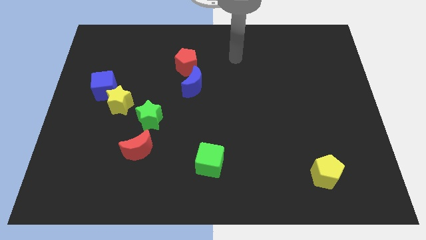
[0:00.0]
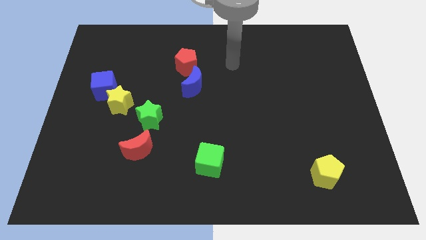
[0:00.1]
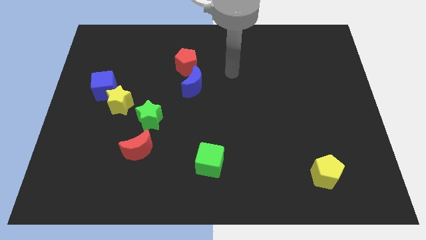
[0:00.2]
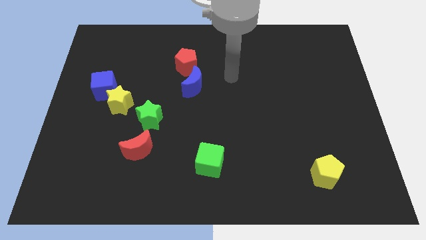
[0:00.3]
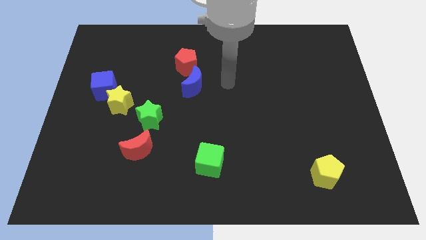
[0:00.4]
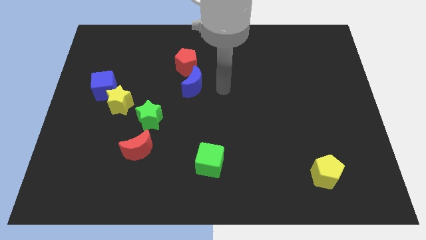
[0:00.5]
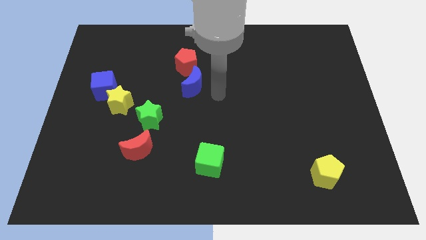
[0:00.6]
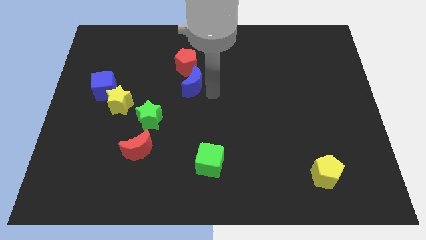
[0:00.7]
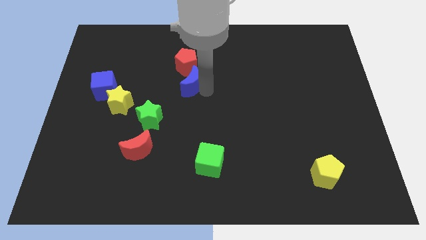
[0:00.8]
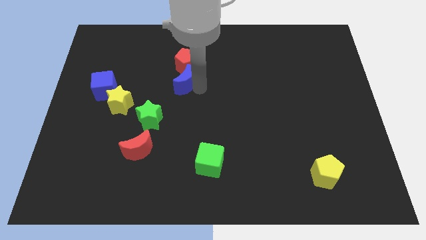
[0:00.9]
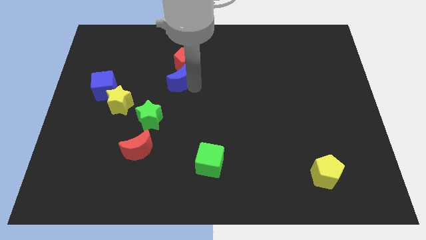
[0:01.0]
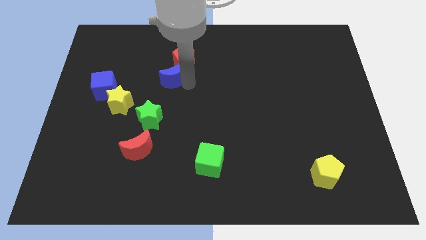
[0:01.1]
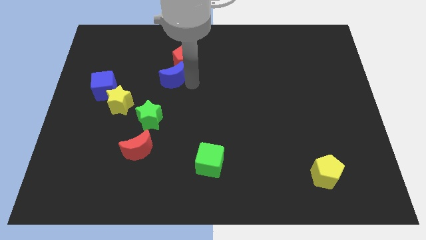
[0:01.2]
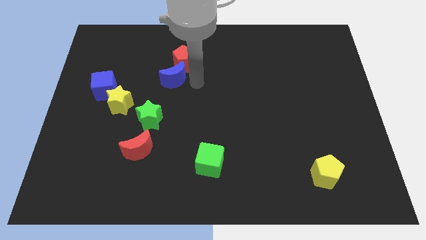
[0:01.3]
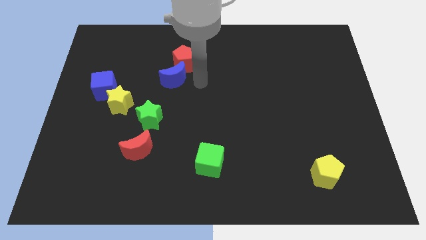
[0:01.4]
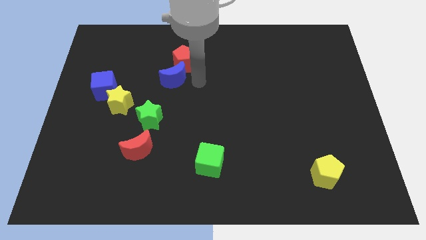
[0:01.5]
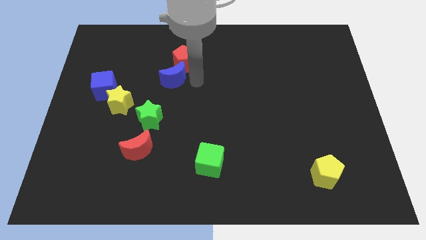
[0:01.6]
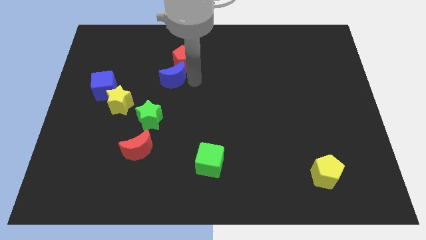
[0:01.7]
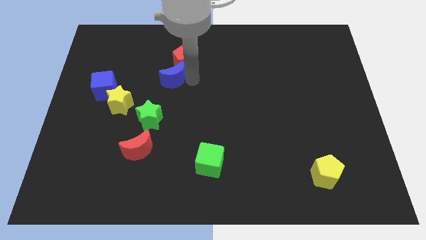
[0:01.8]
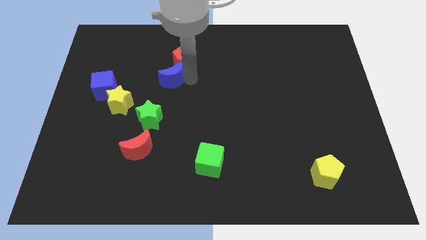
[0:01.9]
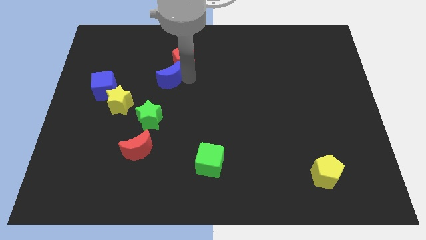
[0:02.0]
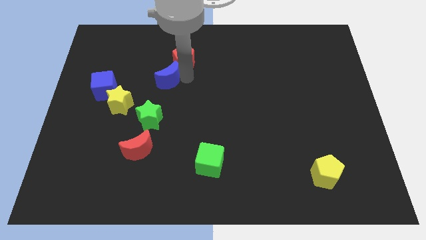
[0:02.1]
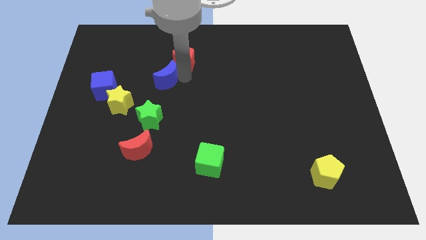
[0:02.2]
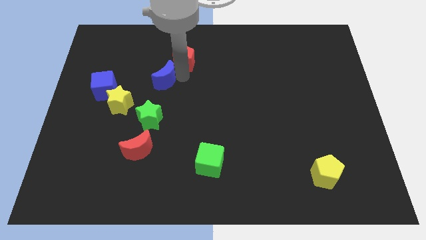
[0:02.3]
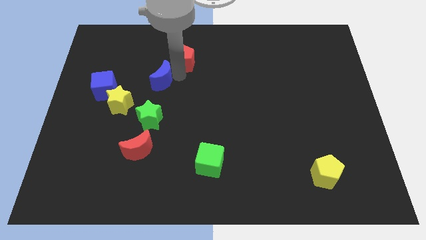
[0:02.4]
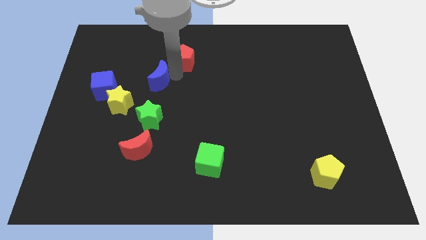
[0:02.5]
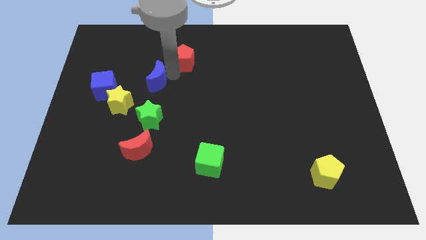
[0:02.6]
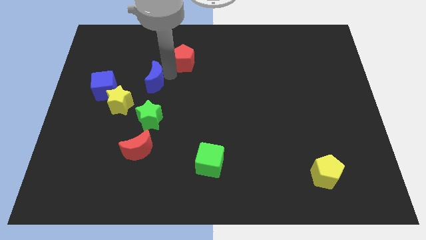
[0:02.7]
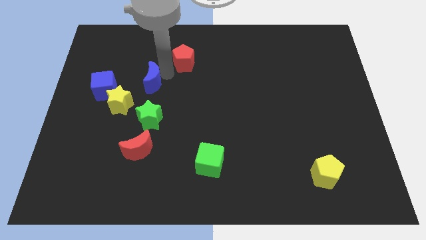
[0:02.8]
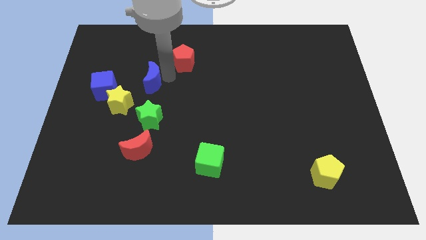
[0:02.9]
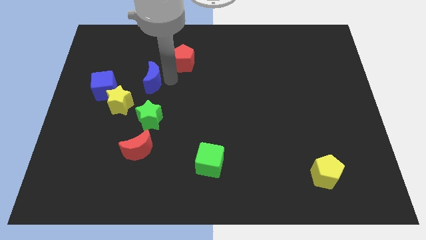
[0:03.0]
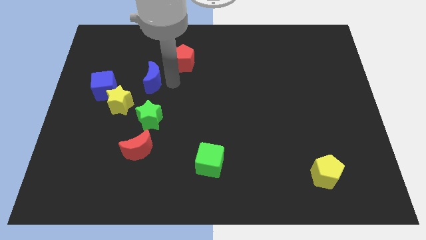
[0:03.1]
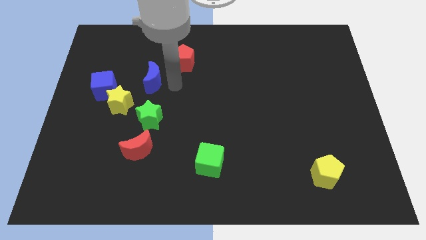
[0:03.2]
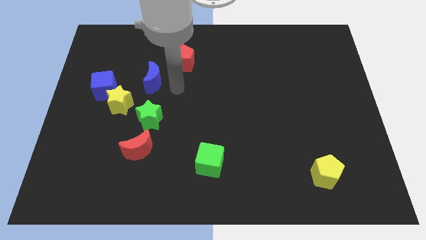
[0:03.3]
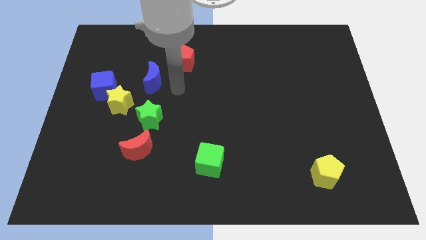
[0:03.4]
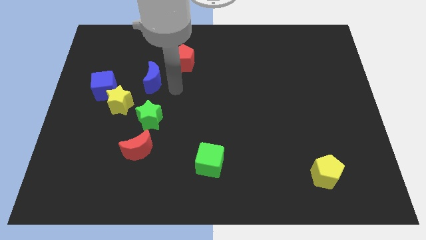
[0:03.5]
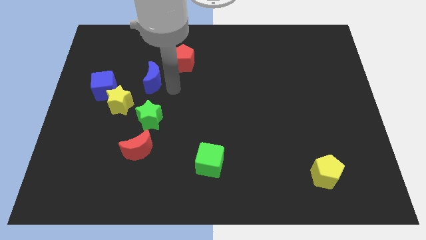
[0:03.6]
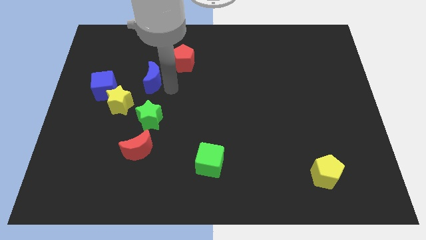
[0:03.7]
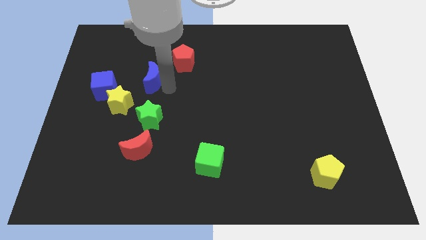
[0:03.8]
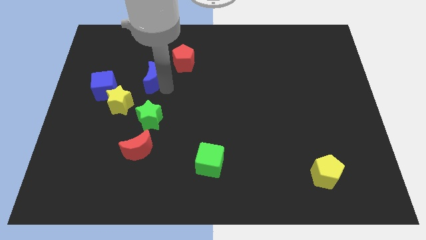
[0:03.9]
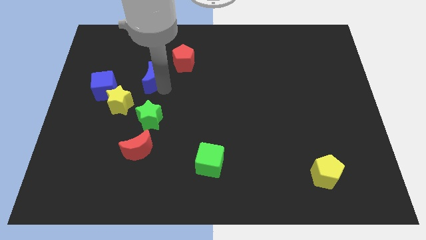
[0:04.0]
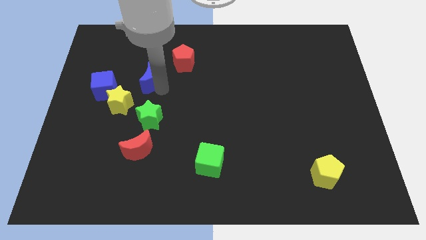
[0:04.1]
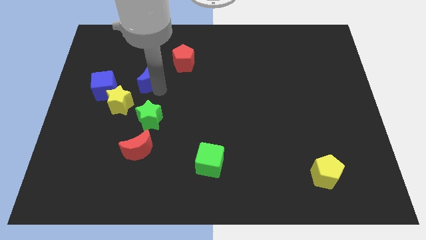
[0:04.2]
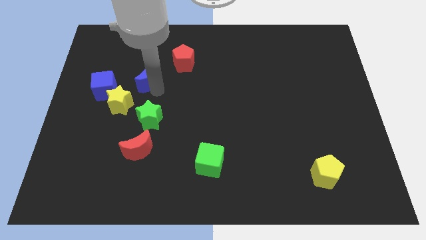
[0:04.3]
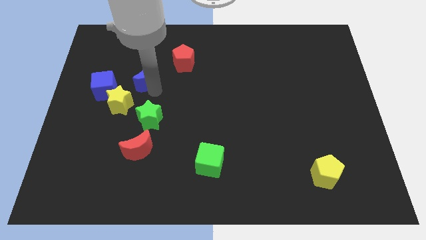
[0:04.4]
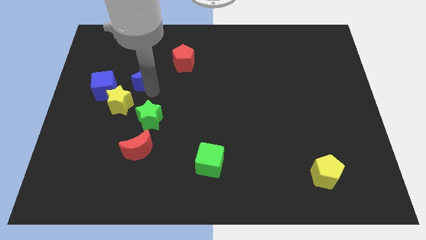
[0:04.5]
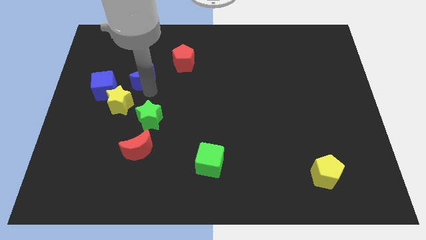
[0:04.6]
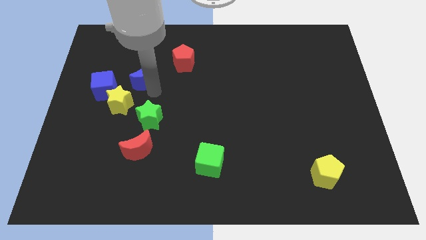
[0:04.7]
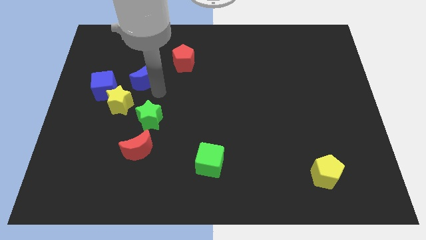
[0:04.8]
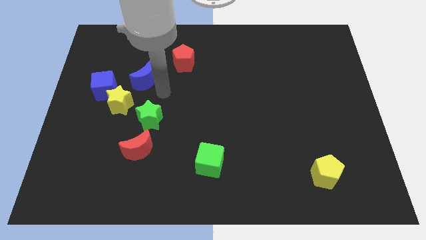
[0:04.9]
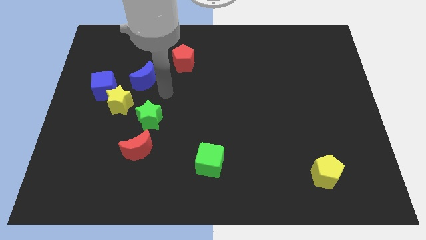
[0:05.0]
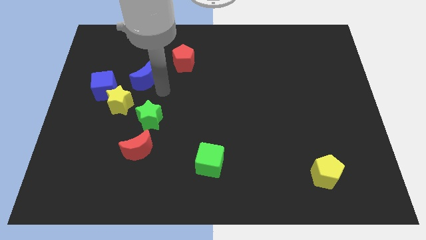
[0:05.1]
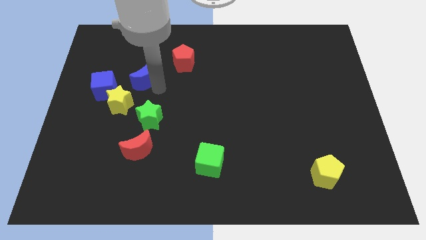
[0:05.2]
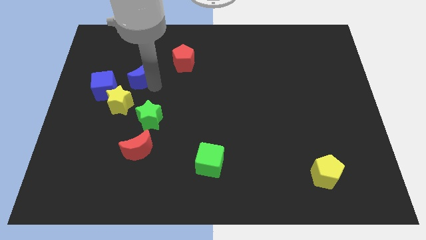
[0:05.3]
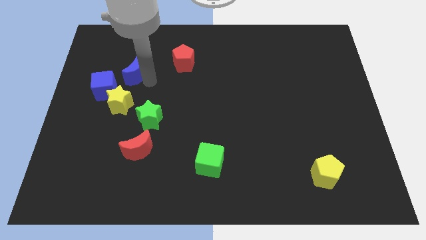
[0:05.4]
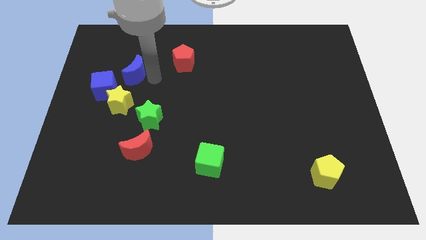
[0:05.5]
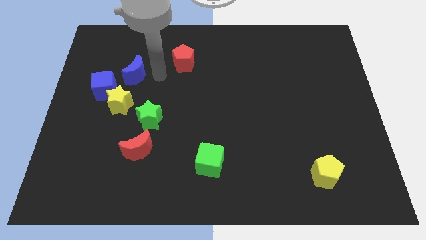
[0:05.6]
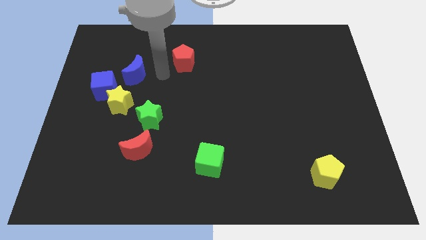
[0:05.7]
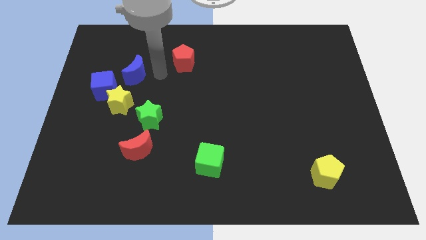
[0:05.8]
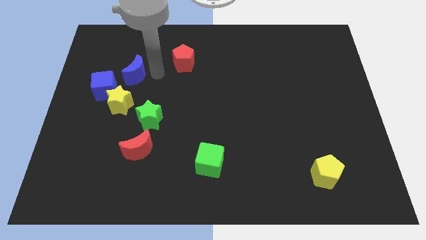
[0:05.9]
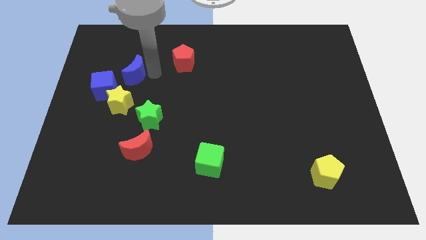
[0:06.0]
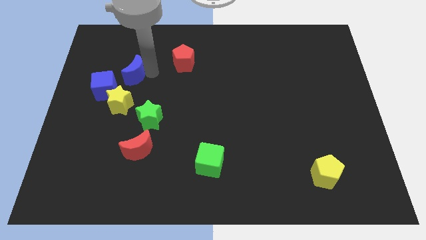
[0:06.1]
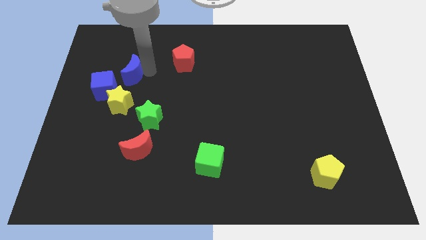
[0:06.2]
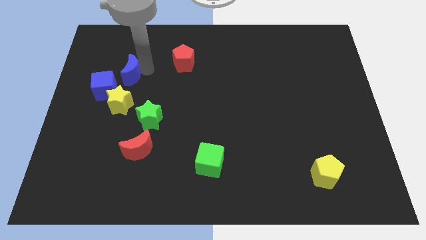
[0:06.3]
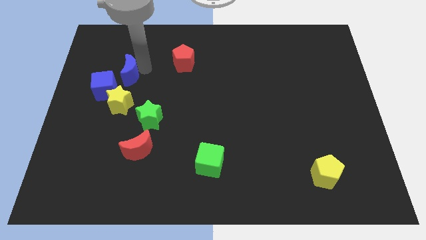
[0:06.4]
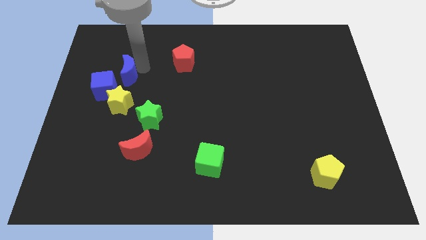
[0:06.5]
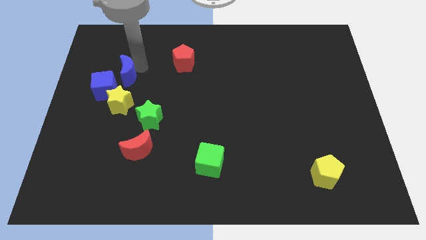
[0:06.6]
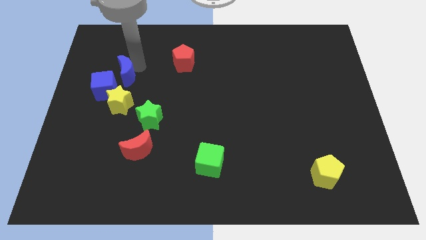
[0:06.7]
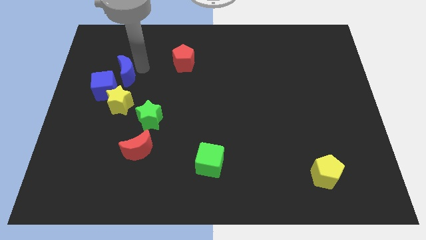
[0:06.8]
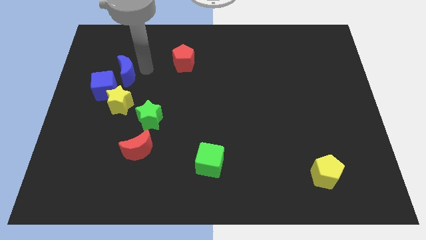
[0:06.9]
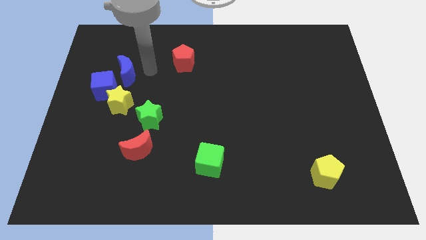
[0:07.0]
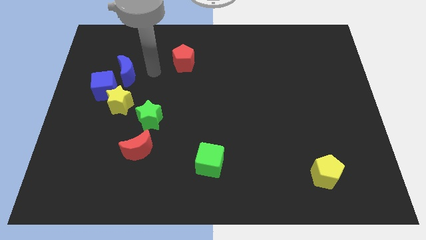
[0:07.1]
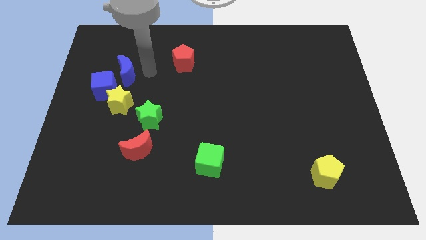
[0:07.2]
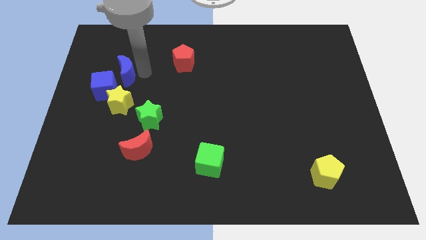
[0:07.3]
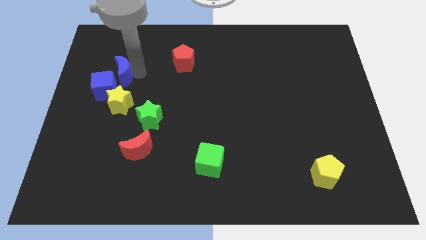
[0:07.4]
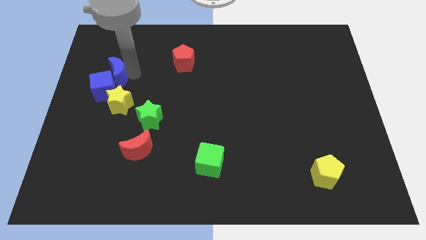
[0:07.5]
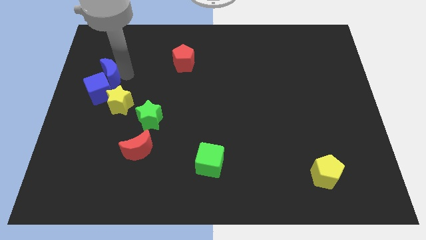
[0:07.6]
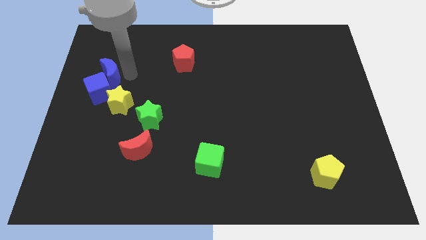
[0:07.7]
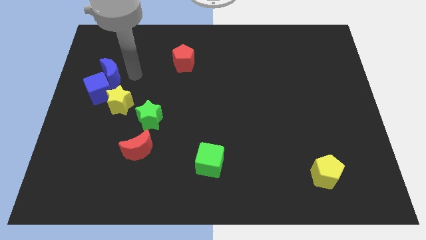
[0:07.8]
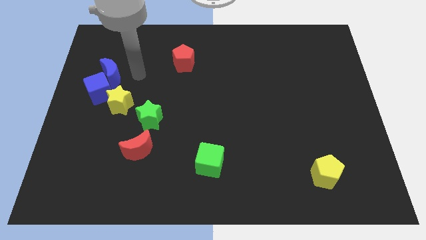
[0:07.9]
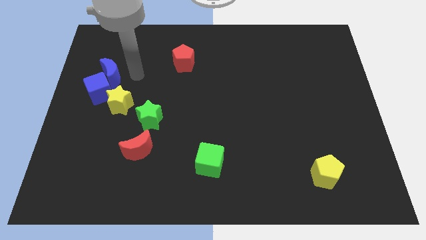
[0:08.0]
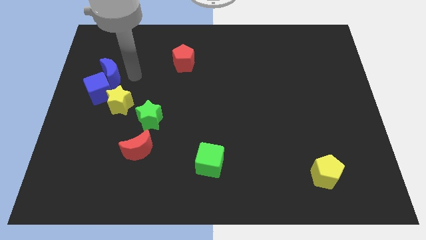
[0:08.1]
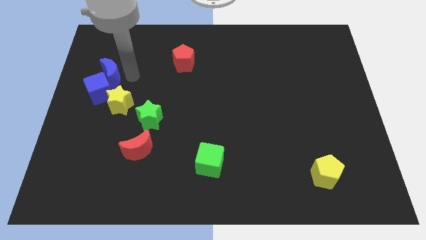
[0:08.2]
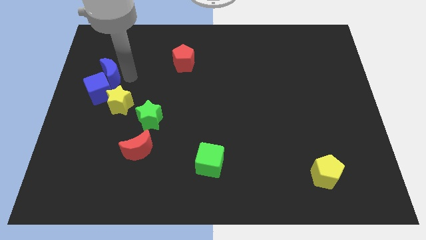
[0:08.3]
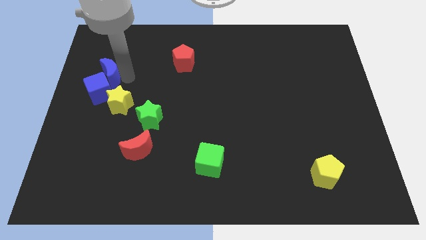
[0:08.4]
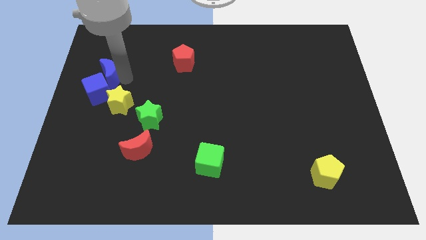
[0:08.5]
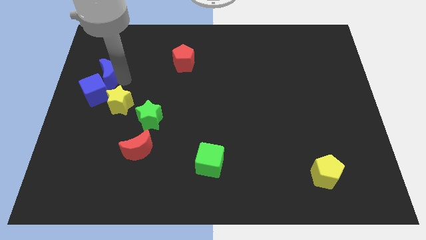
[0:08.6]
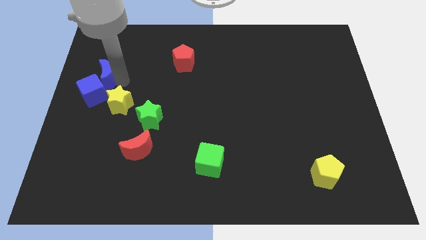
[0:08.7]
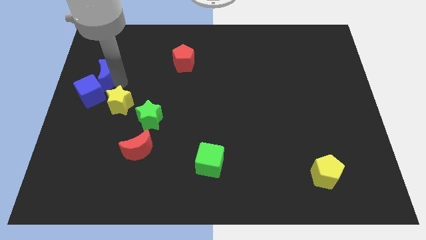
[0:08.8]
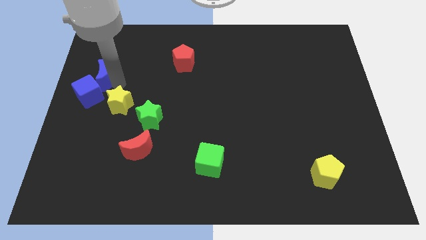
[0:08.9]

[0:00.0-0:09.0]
move the blue moon to the center left
